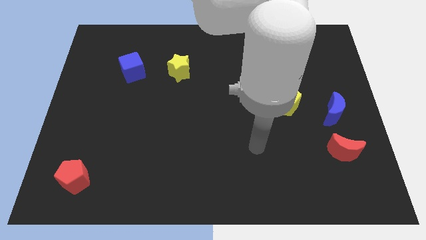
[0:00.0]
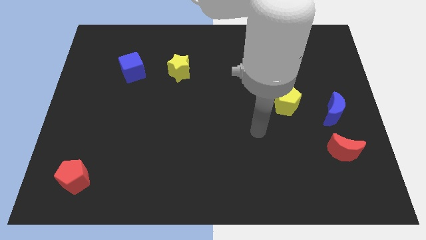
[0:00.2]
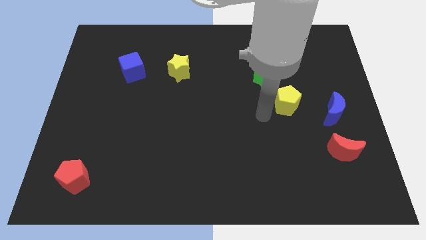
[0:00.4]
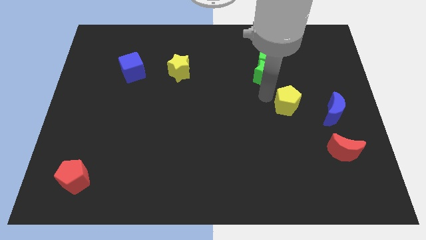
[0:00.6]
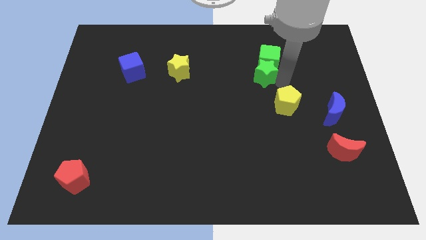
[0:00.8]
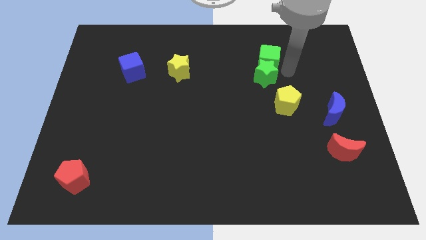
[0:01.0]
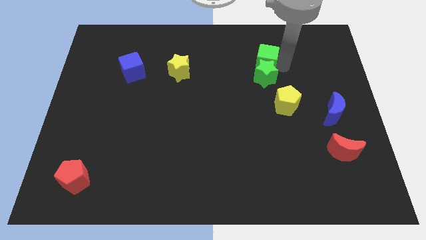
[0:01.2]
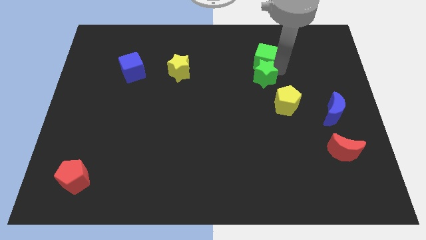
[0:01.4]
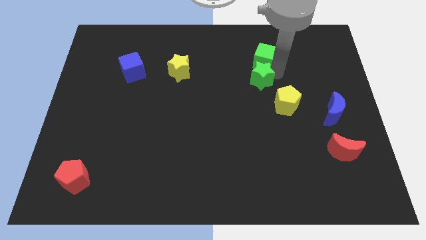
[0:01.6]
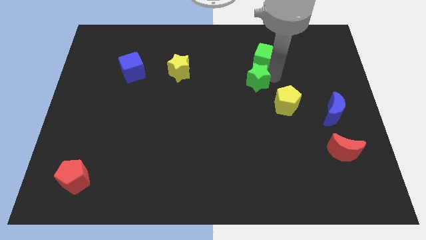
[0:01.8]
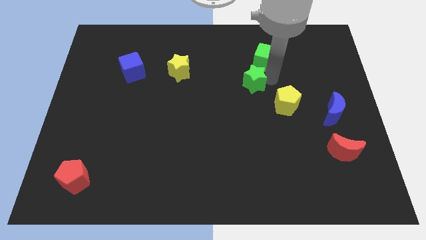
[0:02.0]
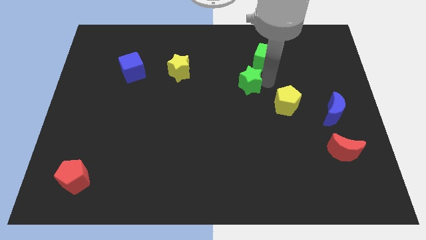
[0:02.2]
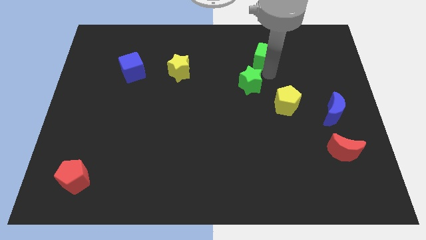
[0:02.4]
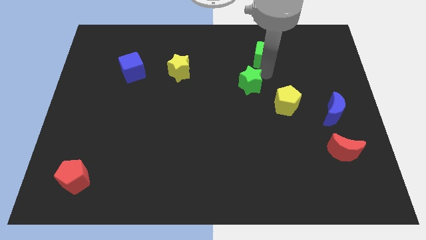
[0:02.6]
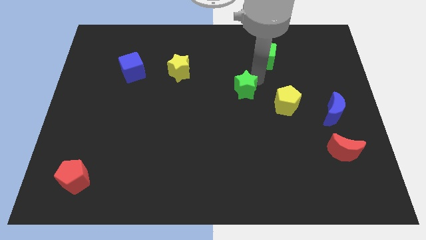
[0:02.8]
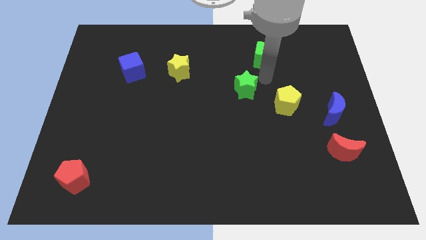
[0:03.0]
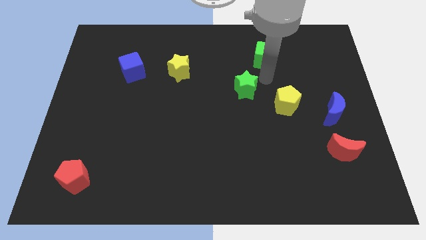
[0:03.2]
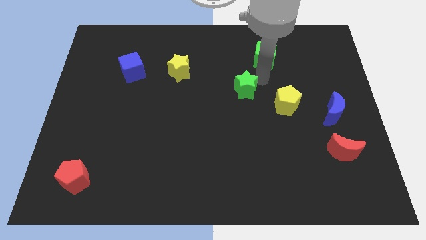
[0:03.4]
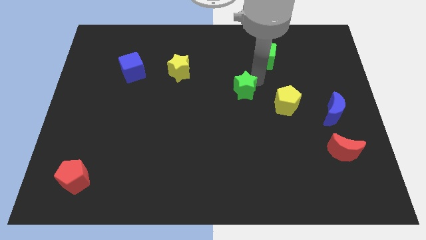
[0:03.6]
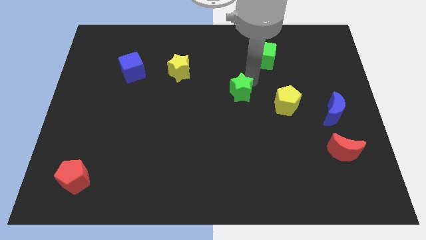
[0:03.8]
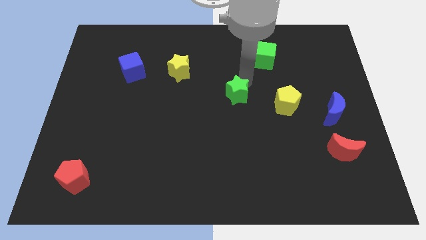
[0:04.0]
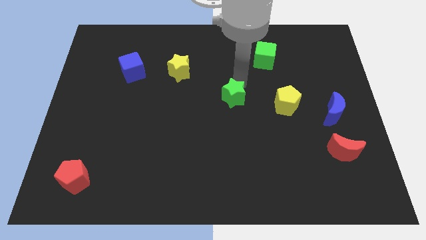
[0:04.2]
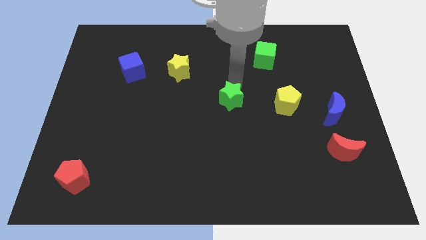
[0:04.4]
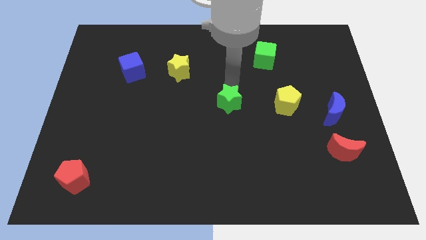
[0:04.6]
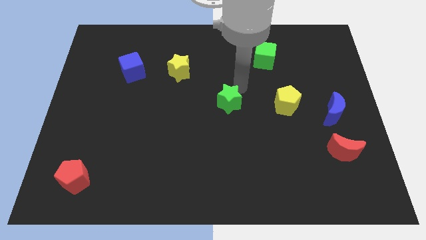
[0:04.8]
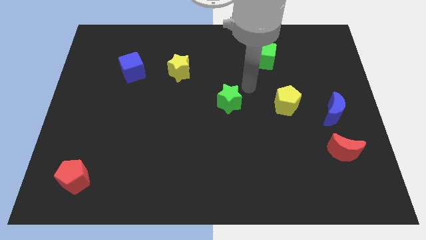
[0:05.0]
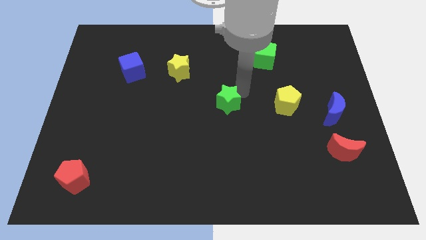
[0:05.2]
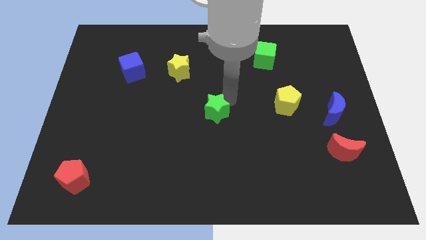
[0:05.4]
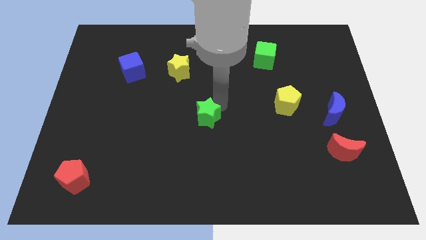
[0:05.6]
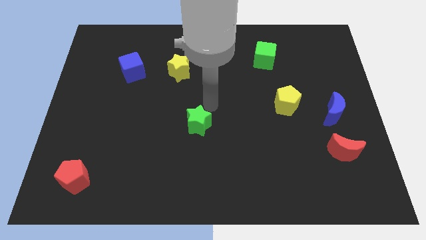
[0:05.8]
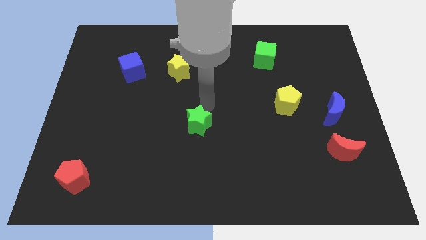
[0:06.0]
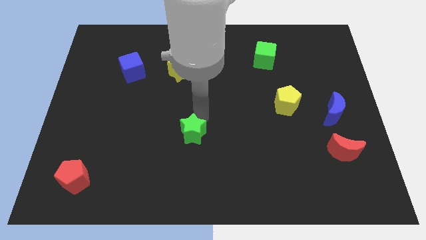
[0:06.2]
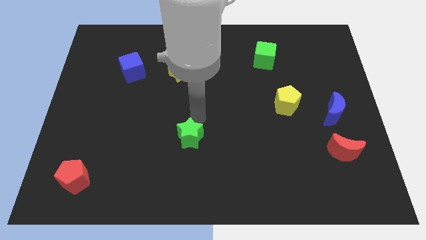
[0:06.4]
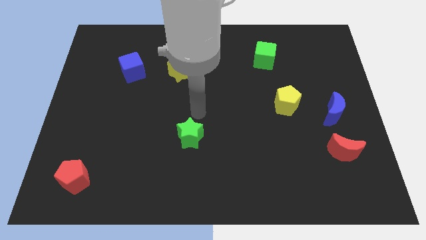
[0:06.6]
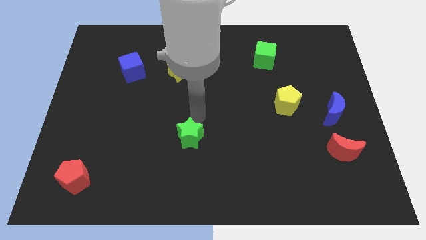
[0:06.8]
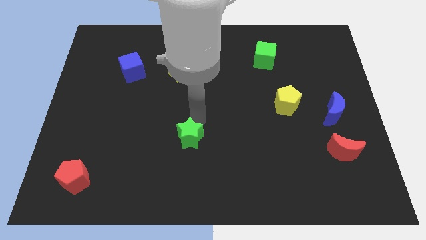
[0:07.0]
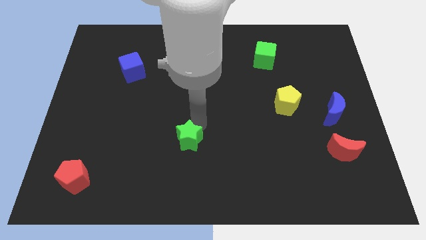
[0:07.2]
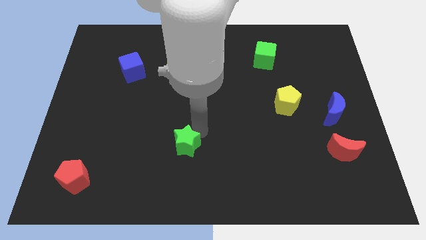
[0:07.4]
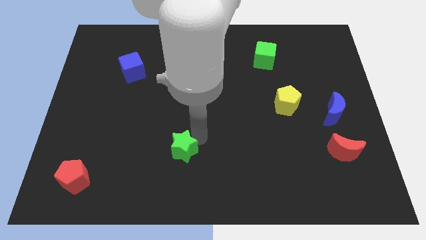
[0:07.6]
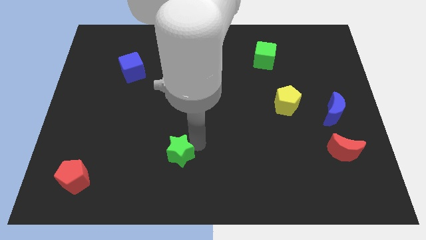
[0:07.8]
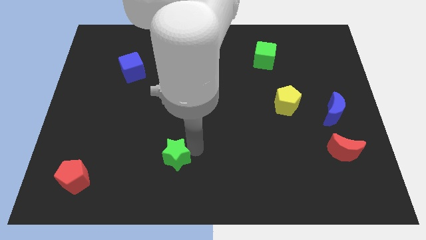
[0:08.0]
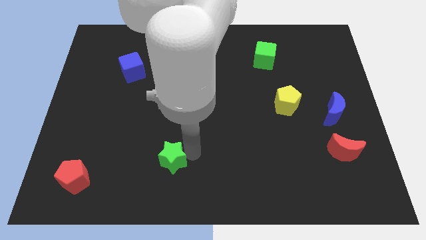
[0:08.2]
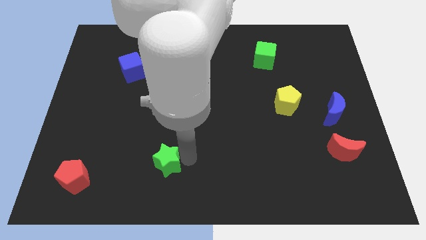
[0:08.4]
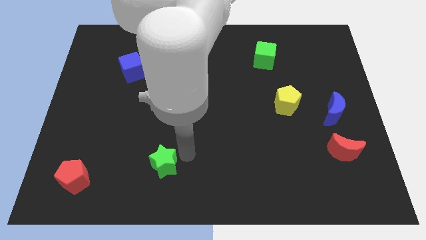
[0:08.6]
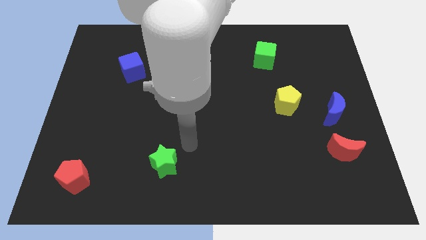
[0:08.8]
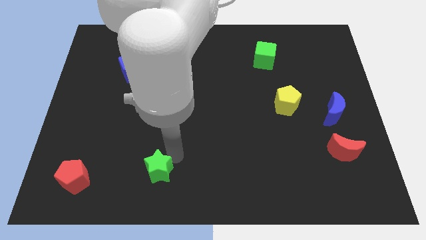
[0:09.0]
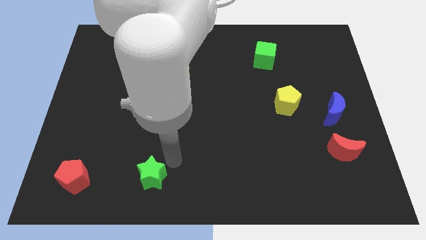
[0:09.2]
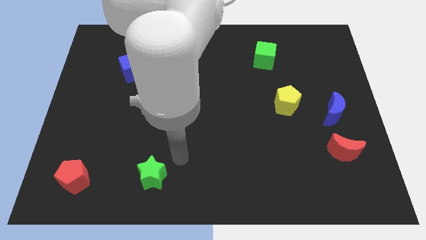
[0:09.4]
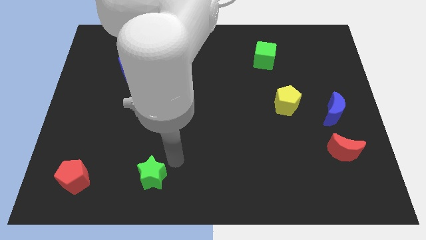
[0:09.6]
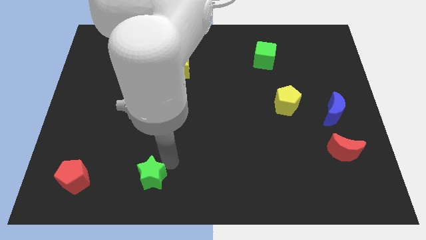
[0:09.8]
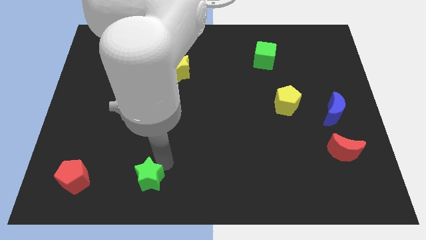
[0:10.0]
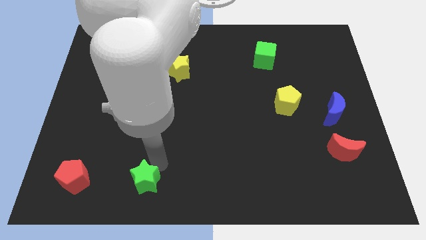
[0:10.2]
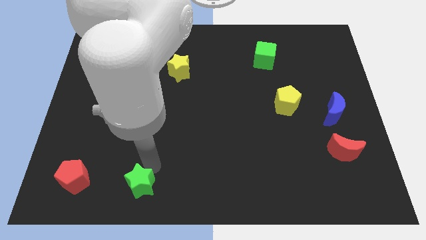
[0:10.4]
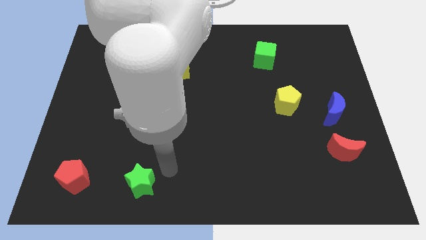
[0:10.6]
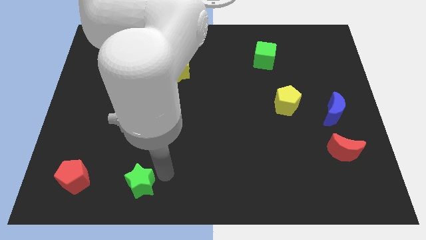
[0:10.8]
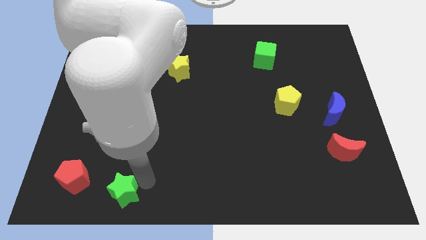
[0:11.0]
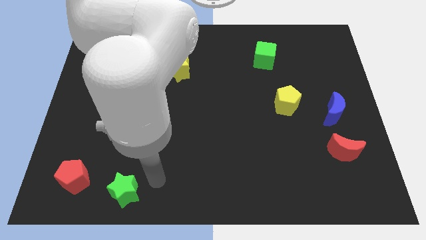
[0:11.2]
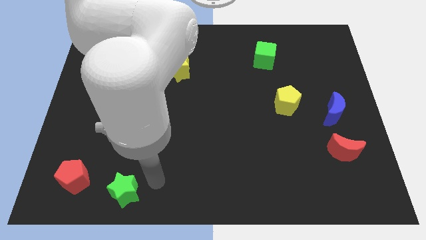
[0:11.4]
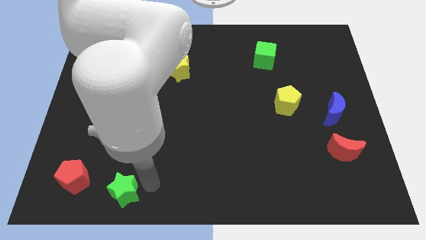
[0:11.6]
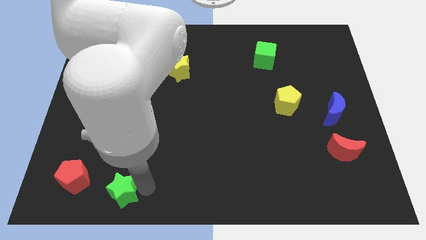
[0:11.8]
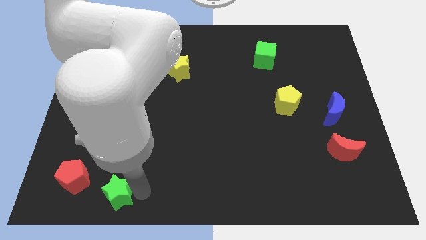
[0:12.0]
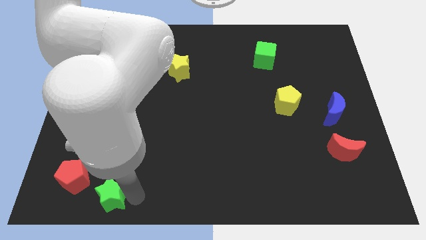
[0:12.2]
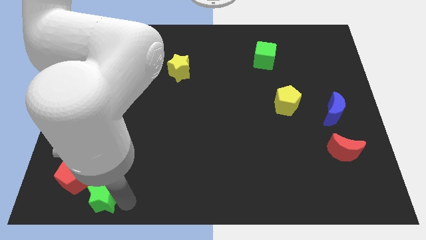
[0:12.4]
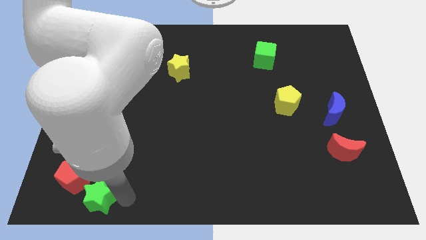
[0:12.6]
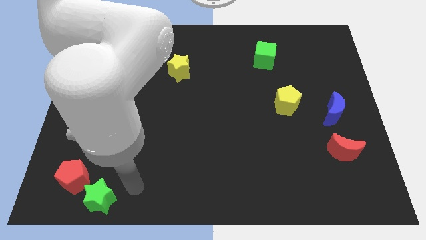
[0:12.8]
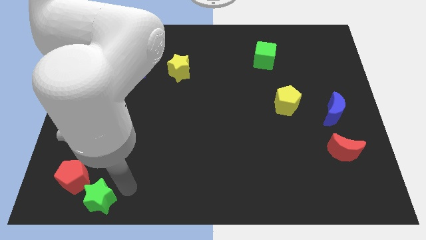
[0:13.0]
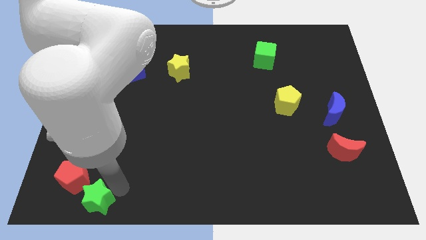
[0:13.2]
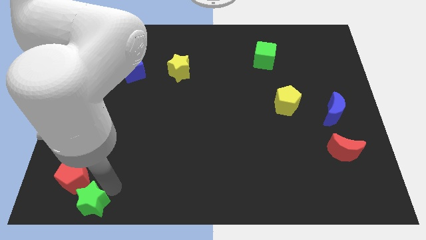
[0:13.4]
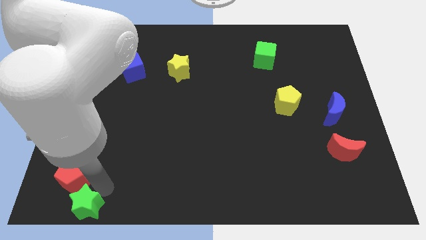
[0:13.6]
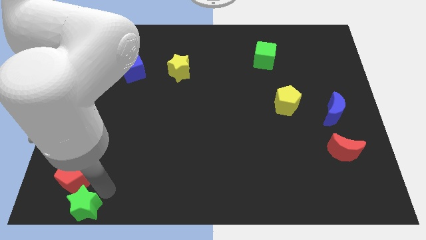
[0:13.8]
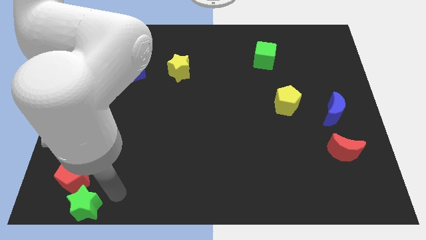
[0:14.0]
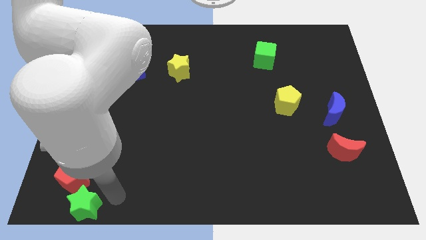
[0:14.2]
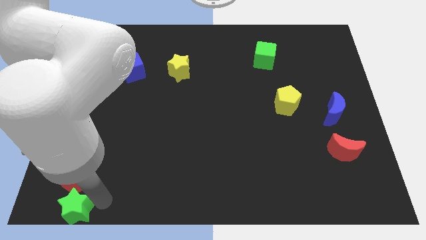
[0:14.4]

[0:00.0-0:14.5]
put the green star to the bottom left
